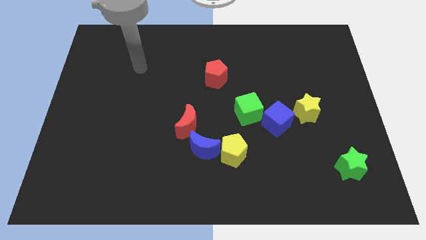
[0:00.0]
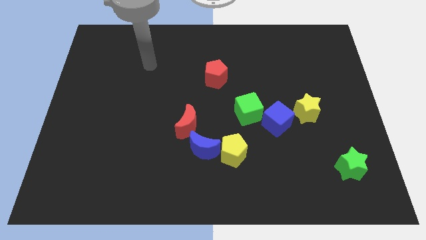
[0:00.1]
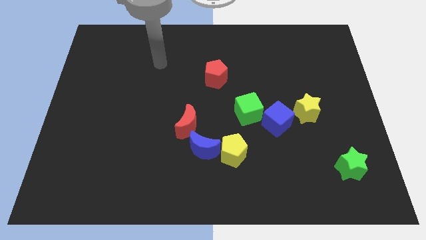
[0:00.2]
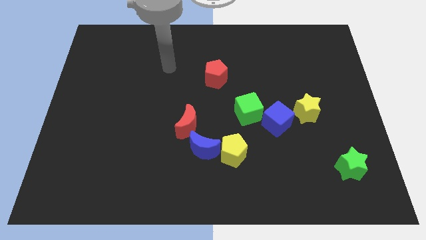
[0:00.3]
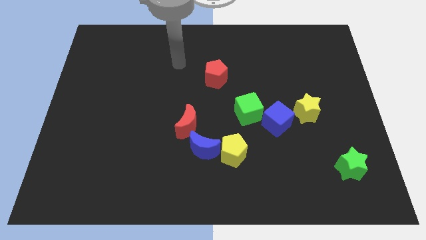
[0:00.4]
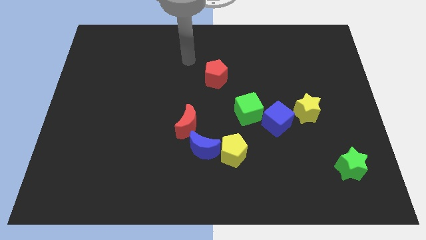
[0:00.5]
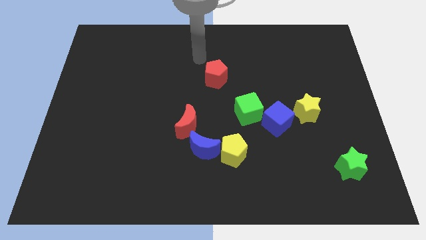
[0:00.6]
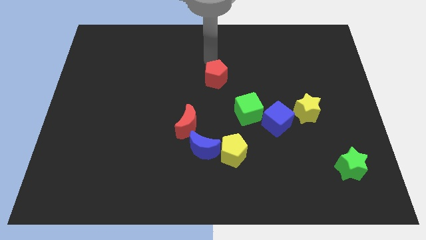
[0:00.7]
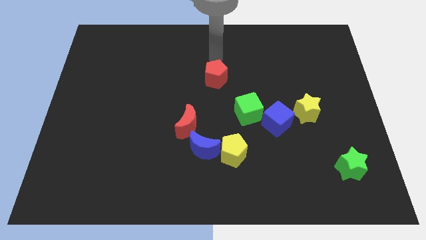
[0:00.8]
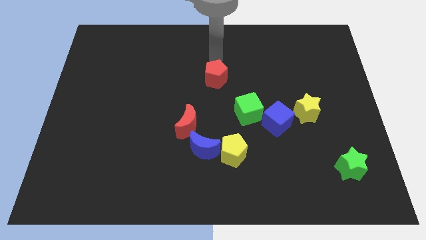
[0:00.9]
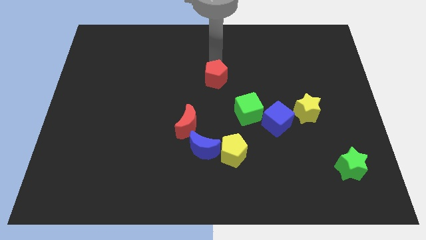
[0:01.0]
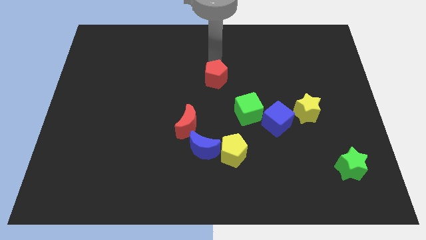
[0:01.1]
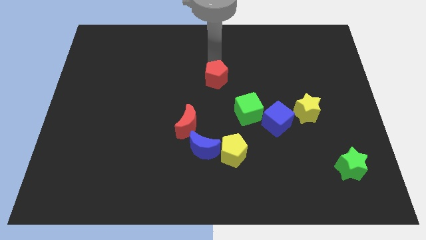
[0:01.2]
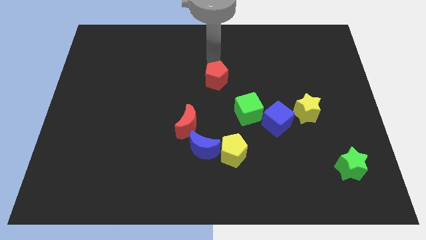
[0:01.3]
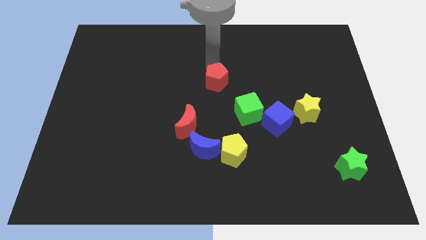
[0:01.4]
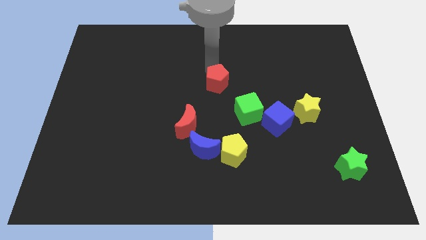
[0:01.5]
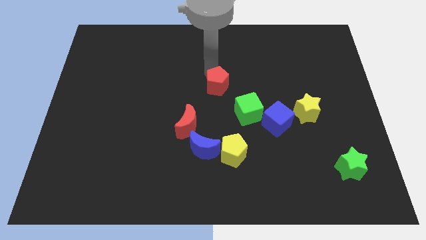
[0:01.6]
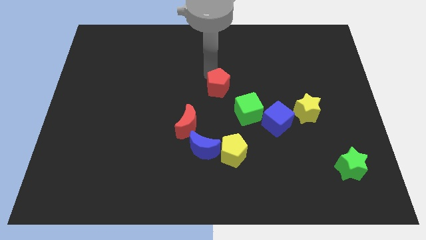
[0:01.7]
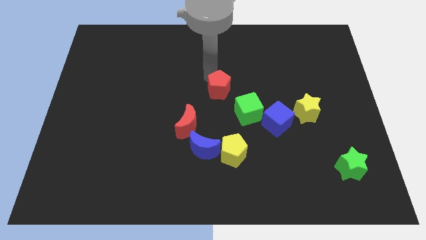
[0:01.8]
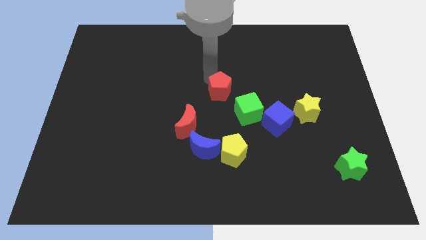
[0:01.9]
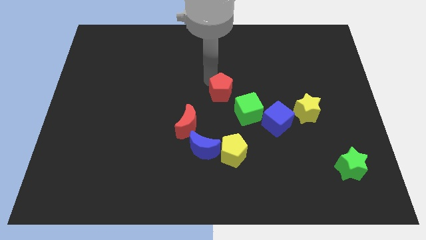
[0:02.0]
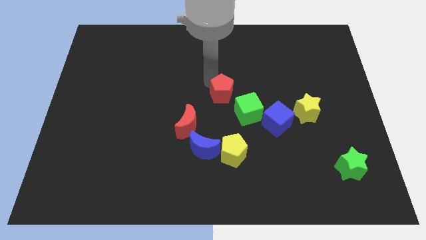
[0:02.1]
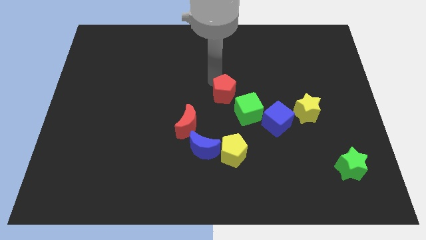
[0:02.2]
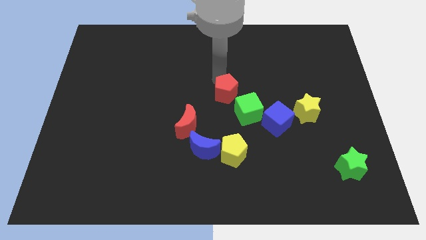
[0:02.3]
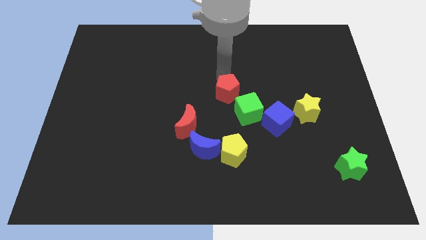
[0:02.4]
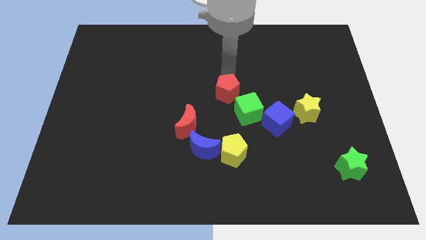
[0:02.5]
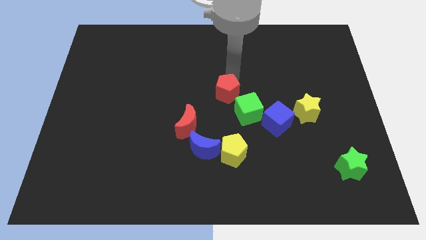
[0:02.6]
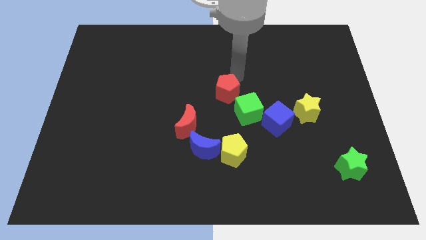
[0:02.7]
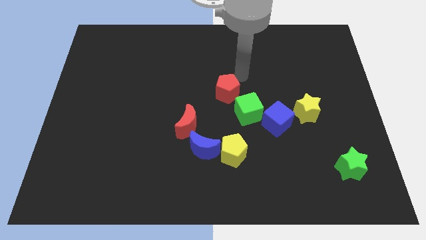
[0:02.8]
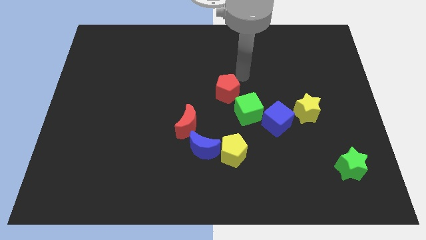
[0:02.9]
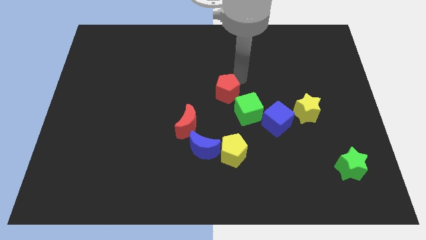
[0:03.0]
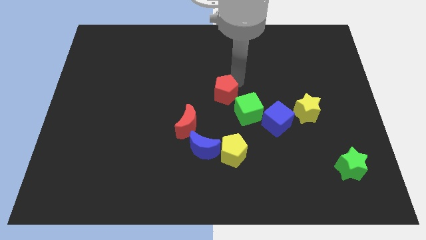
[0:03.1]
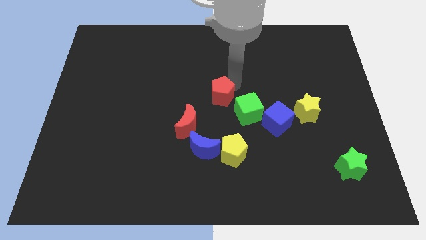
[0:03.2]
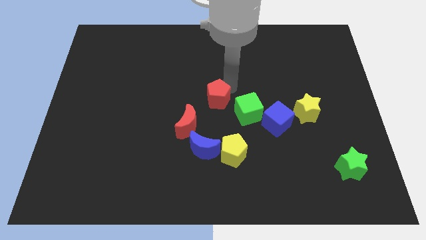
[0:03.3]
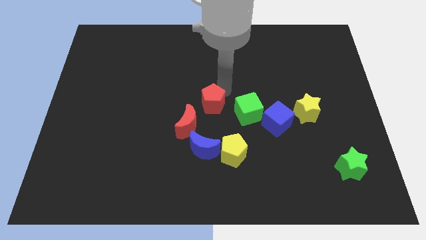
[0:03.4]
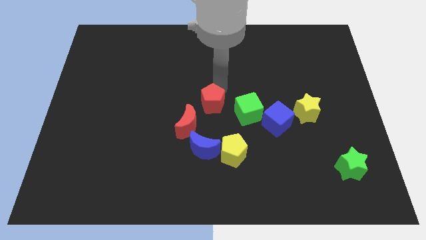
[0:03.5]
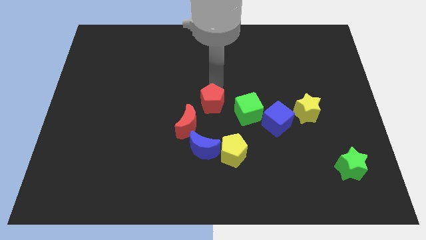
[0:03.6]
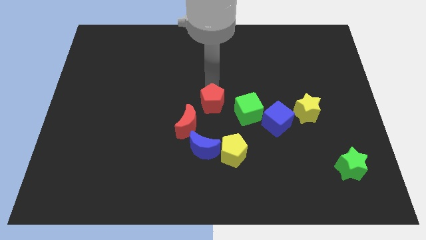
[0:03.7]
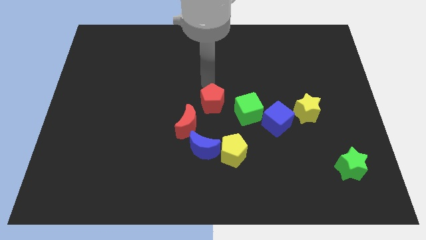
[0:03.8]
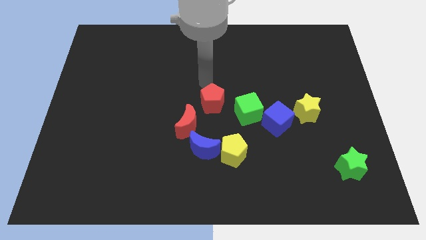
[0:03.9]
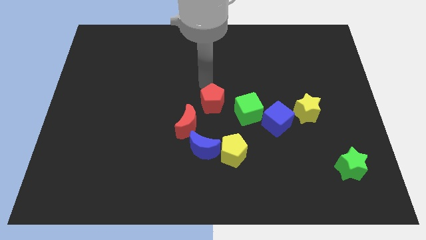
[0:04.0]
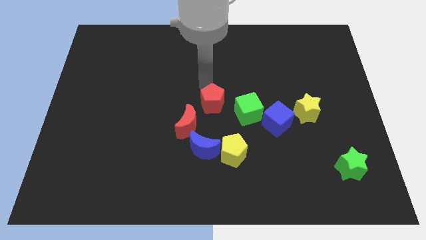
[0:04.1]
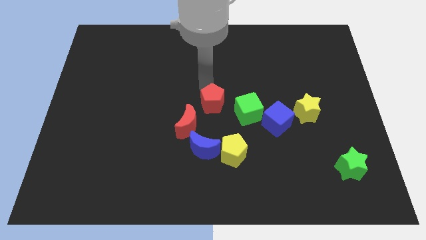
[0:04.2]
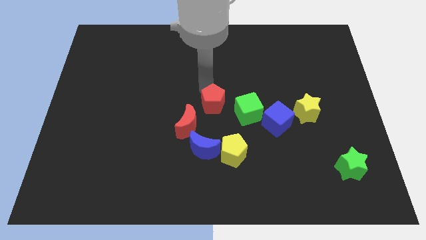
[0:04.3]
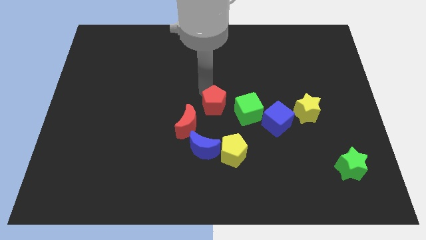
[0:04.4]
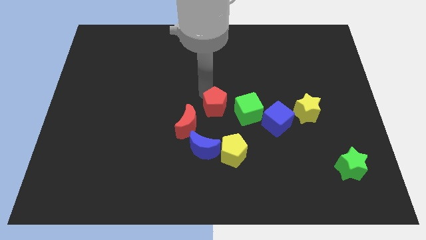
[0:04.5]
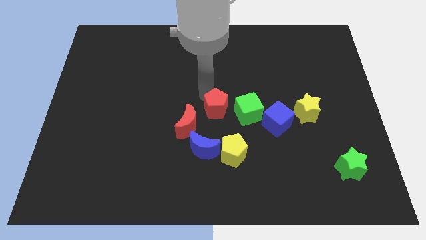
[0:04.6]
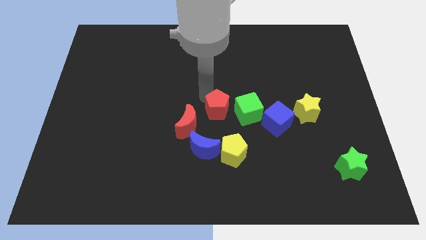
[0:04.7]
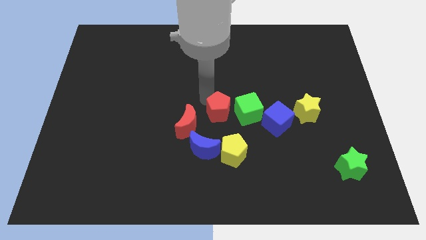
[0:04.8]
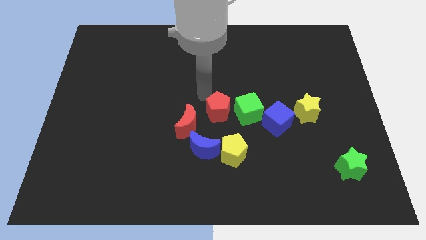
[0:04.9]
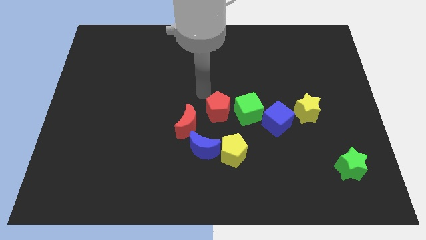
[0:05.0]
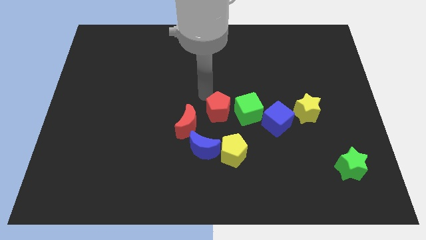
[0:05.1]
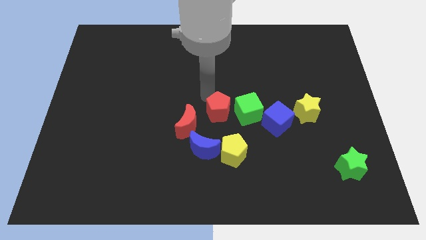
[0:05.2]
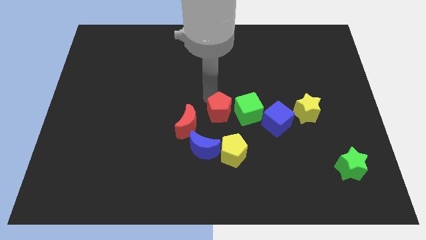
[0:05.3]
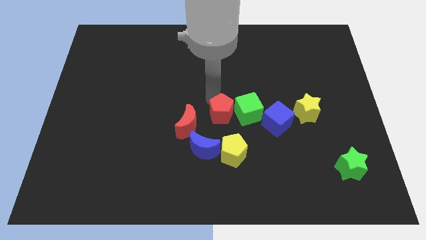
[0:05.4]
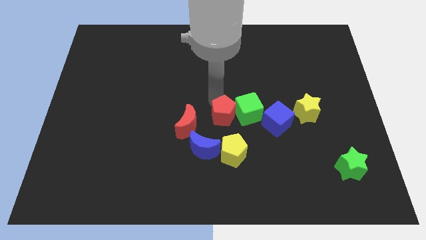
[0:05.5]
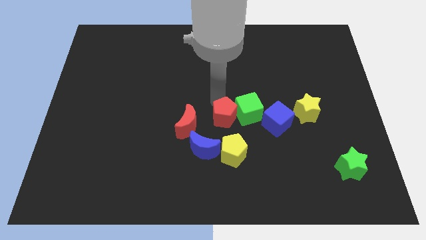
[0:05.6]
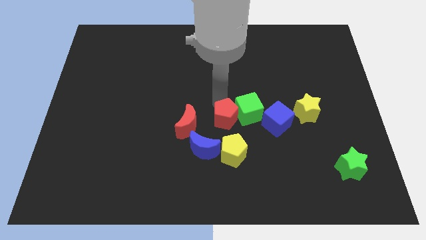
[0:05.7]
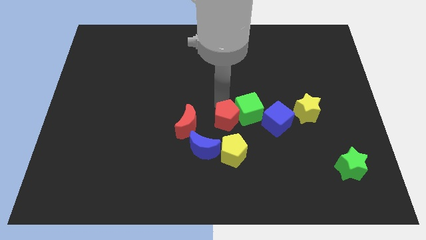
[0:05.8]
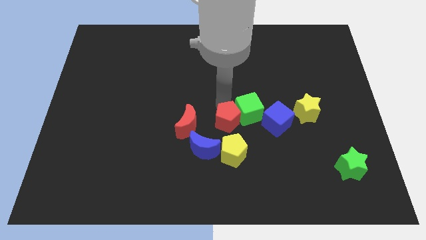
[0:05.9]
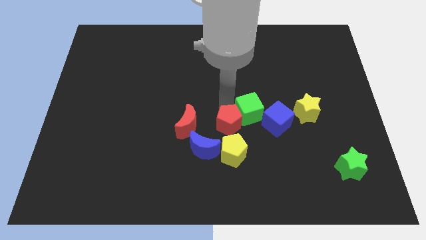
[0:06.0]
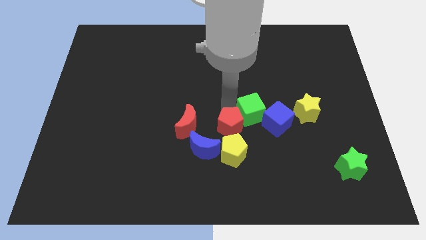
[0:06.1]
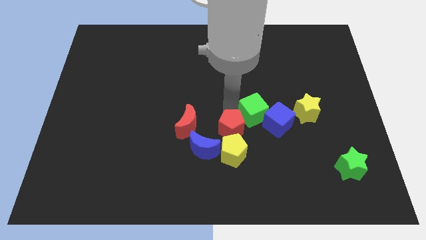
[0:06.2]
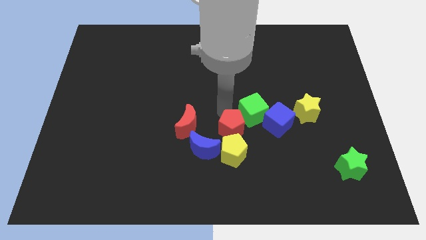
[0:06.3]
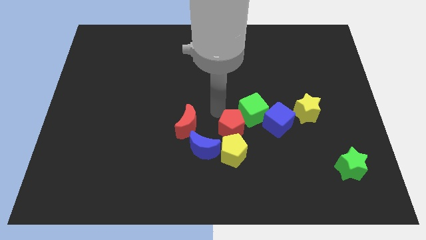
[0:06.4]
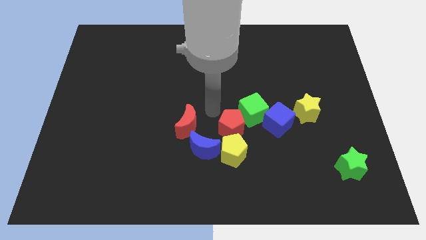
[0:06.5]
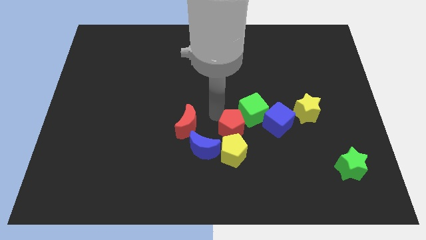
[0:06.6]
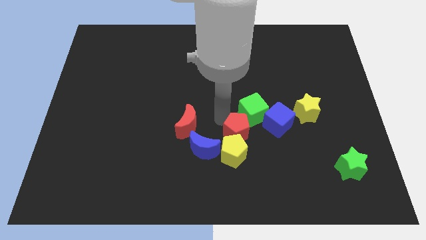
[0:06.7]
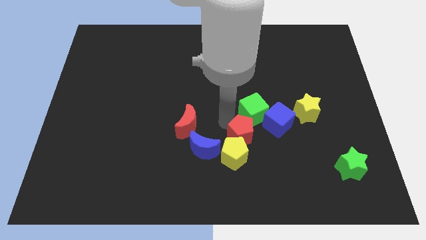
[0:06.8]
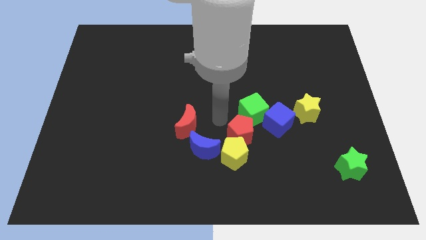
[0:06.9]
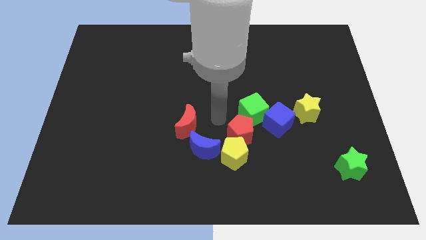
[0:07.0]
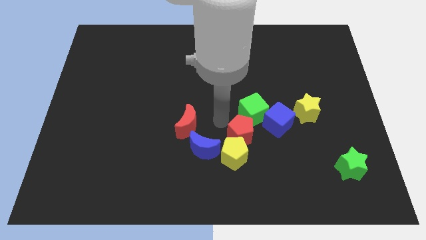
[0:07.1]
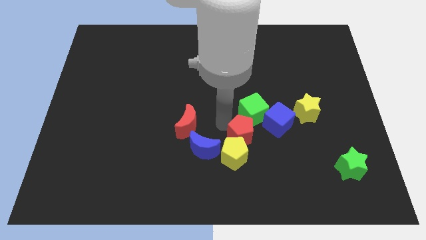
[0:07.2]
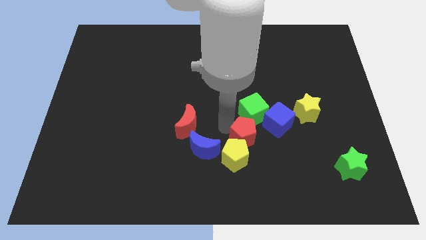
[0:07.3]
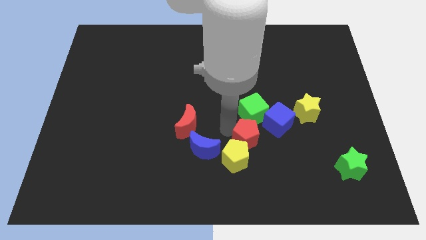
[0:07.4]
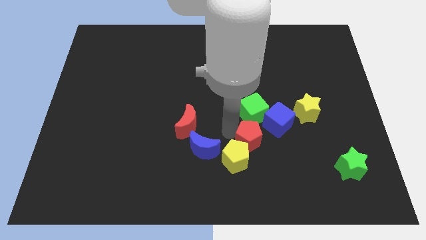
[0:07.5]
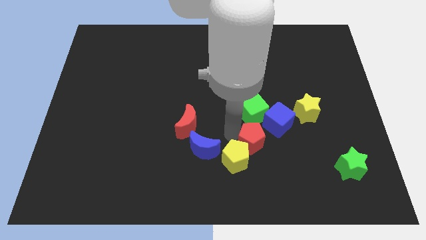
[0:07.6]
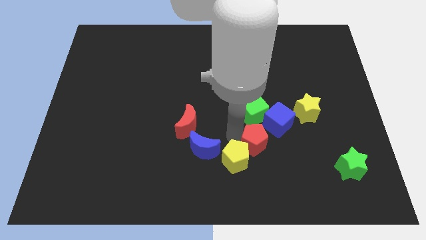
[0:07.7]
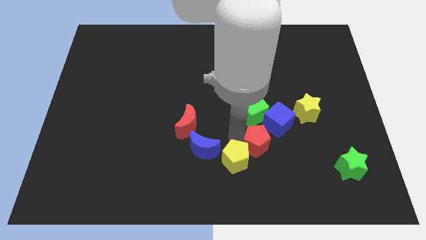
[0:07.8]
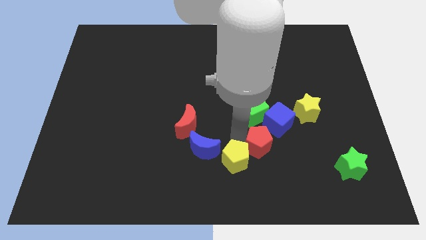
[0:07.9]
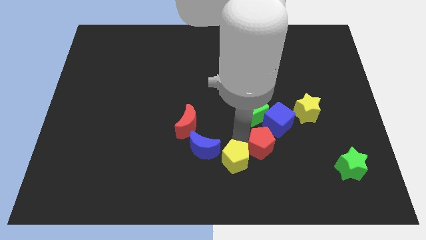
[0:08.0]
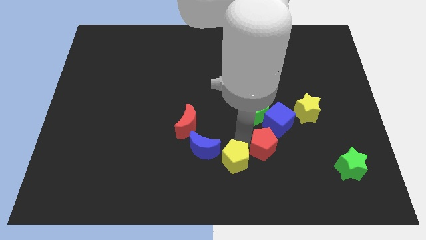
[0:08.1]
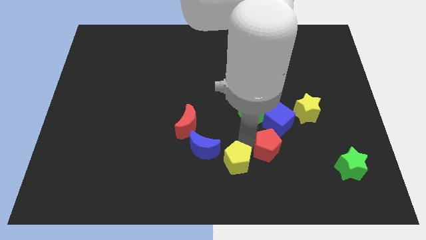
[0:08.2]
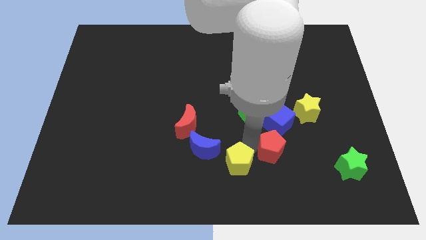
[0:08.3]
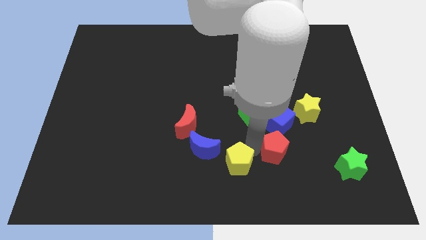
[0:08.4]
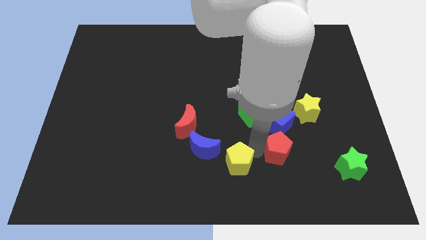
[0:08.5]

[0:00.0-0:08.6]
slide the red pentagon to the left side of the green star
